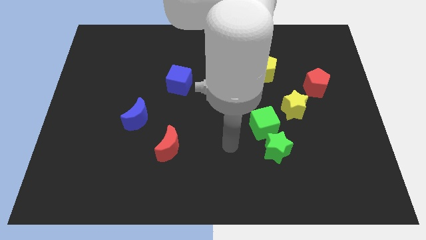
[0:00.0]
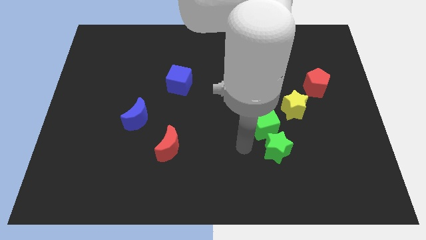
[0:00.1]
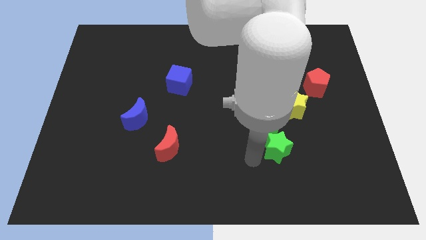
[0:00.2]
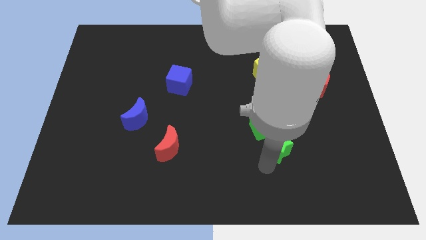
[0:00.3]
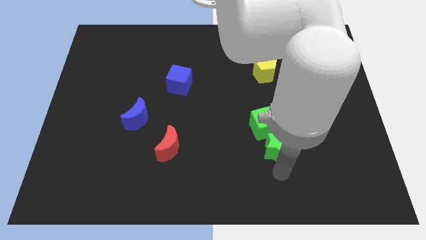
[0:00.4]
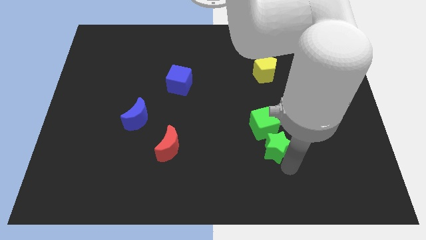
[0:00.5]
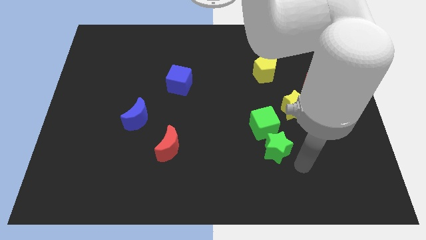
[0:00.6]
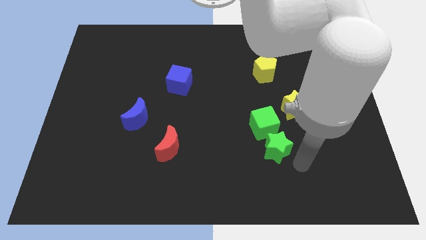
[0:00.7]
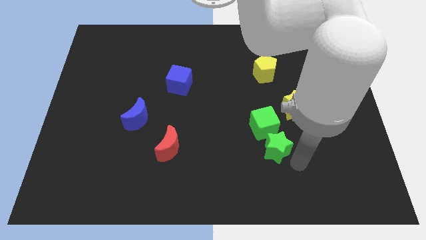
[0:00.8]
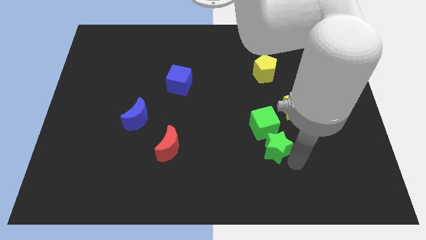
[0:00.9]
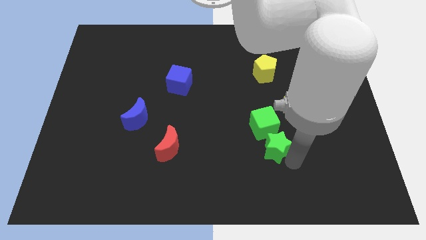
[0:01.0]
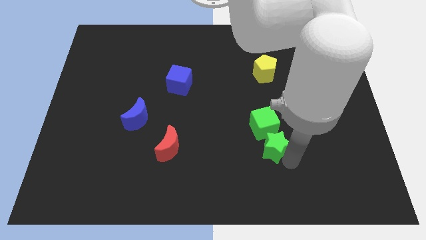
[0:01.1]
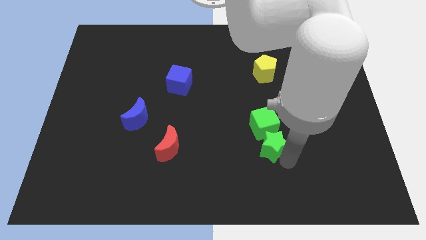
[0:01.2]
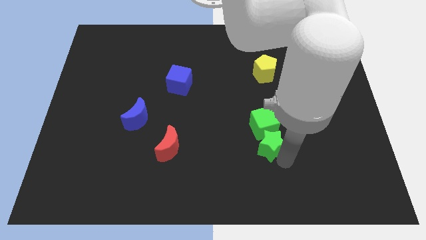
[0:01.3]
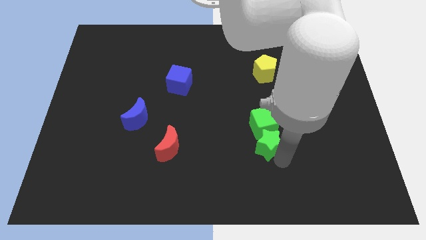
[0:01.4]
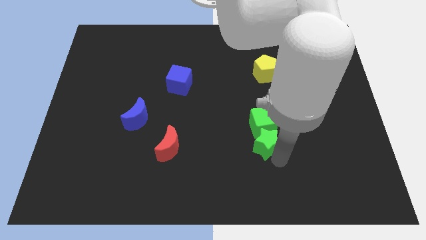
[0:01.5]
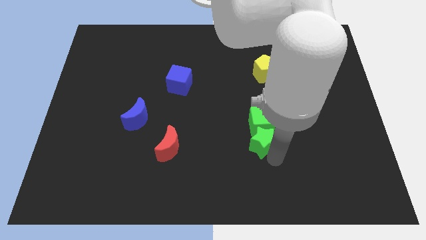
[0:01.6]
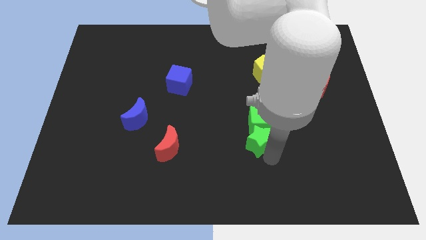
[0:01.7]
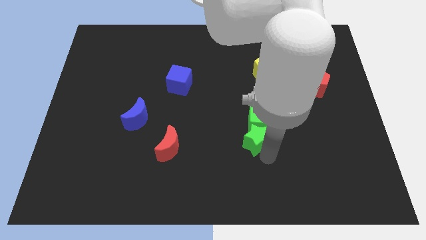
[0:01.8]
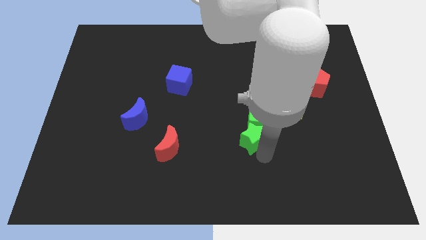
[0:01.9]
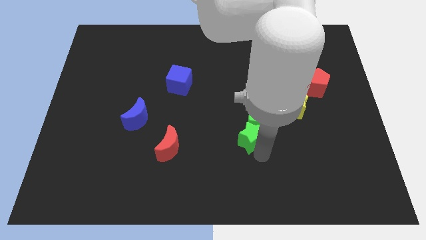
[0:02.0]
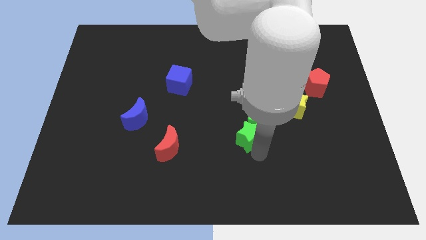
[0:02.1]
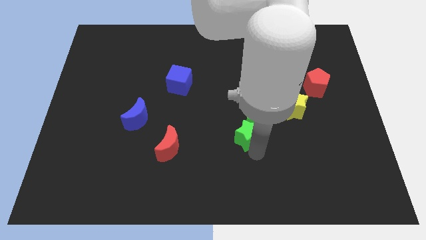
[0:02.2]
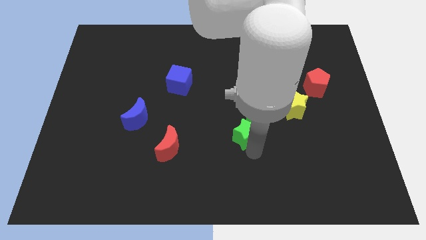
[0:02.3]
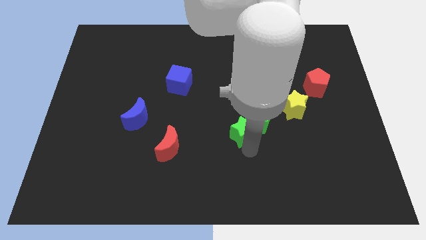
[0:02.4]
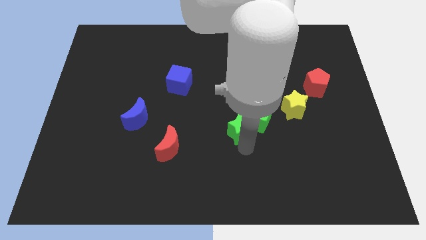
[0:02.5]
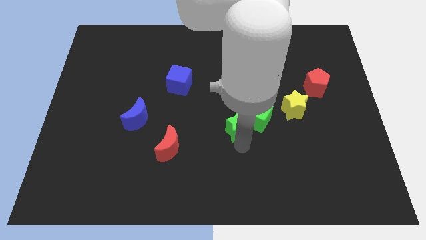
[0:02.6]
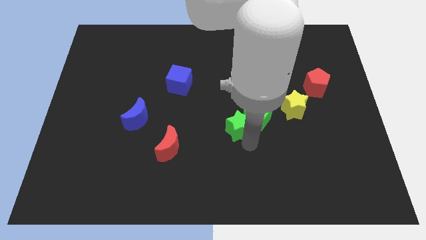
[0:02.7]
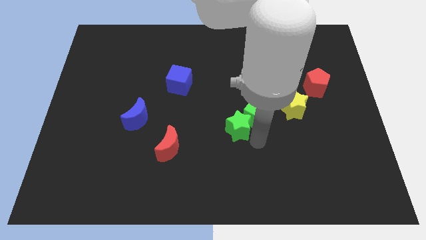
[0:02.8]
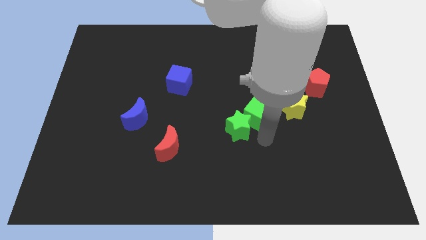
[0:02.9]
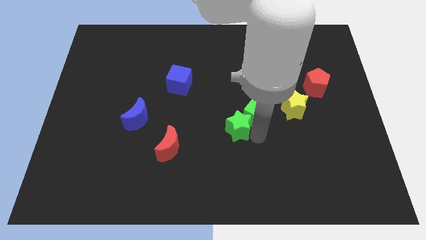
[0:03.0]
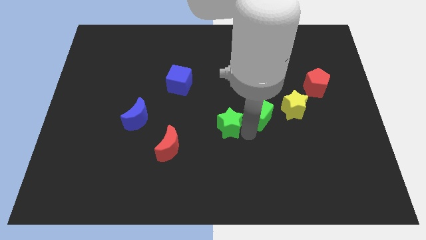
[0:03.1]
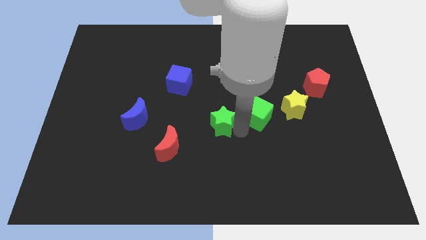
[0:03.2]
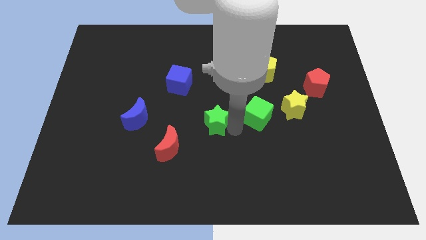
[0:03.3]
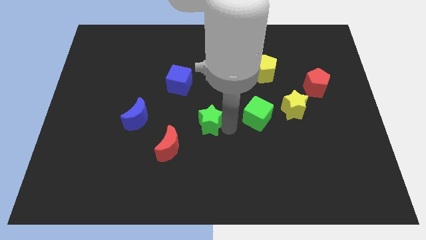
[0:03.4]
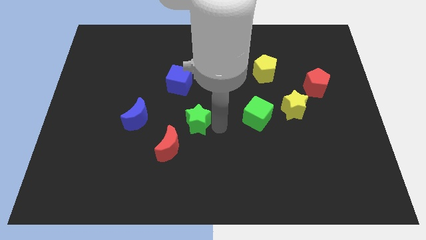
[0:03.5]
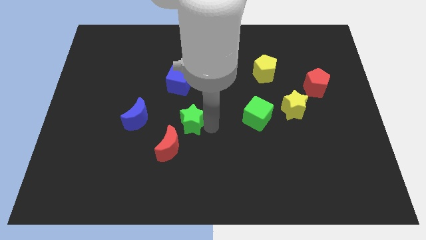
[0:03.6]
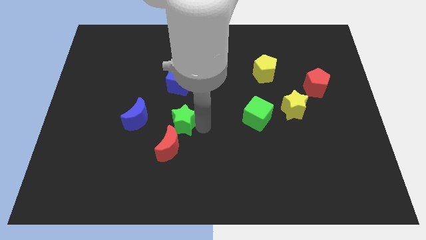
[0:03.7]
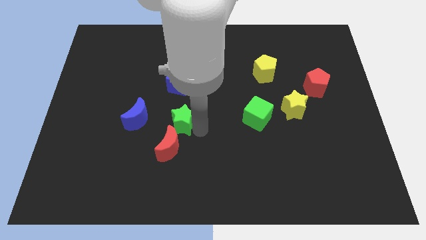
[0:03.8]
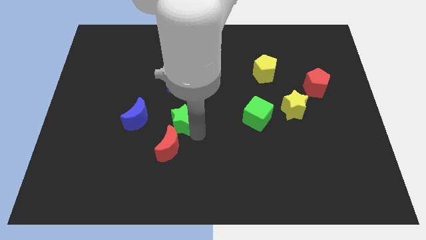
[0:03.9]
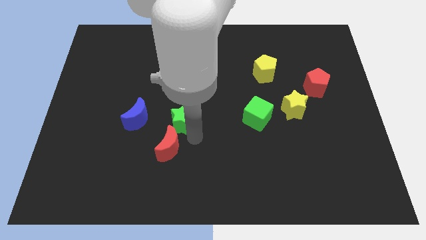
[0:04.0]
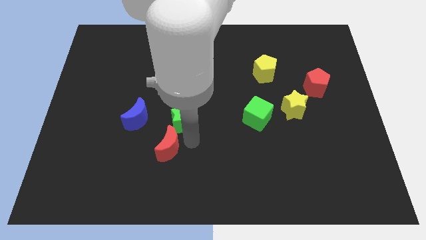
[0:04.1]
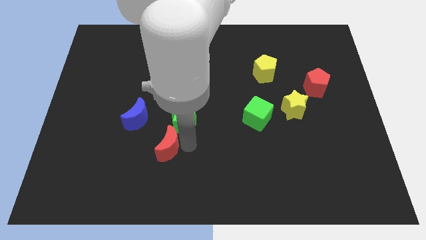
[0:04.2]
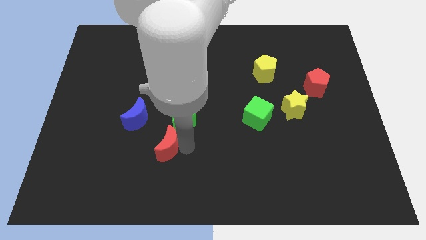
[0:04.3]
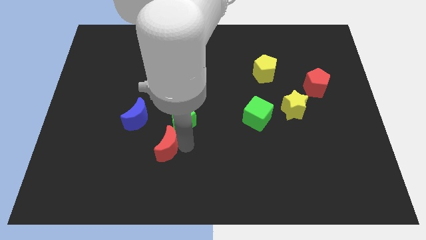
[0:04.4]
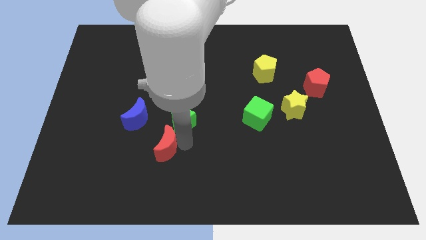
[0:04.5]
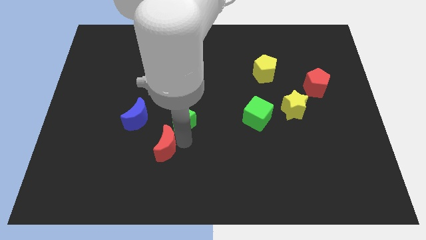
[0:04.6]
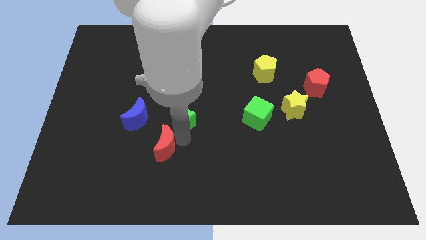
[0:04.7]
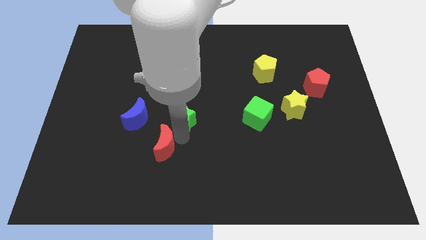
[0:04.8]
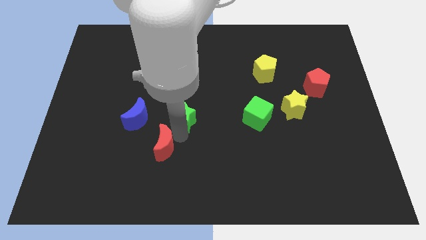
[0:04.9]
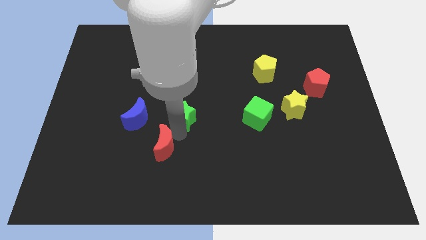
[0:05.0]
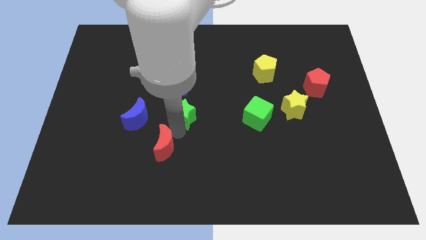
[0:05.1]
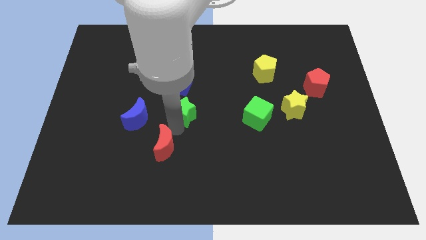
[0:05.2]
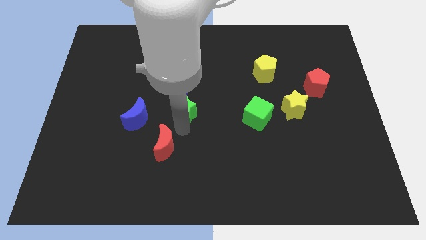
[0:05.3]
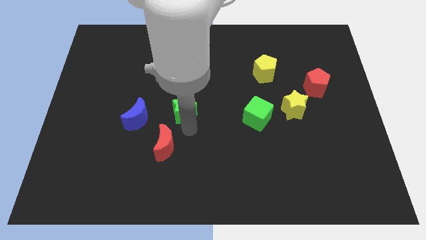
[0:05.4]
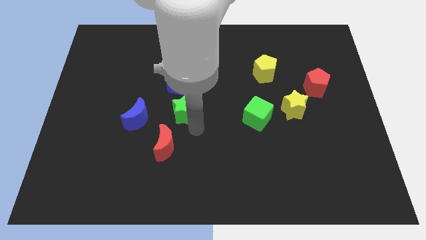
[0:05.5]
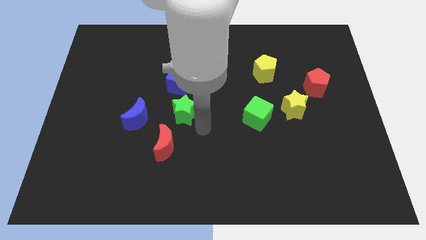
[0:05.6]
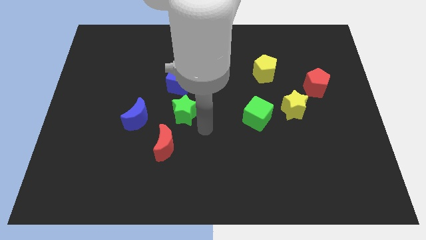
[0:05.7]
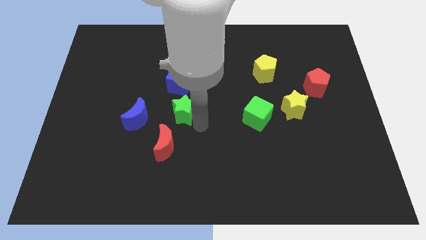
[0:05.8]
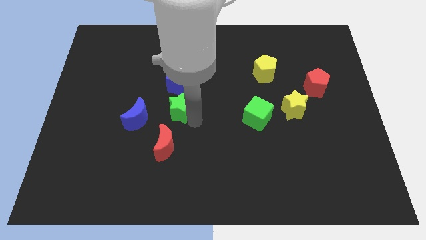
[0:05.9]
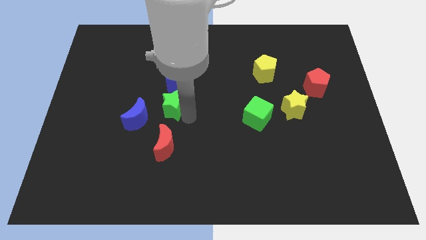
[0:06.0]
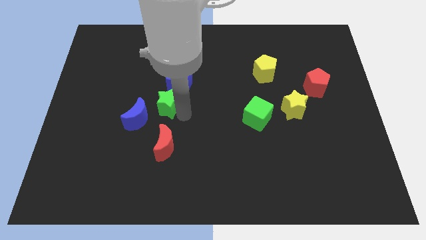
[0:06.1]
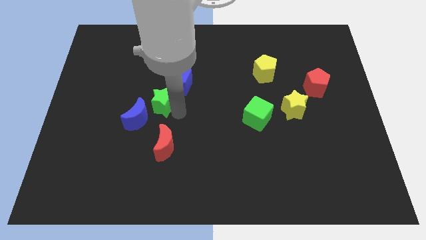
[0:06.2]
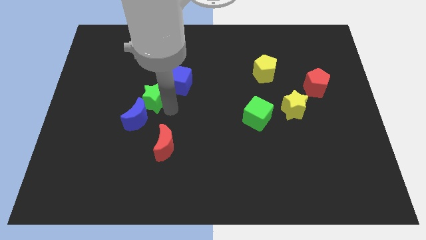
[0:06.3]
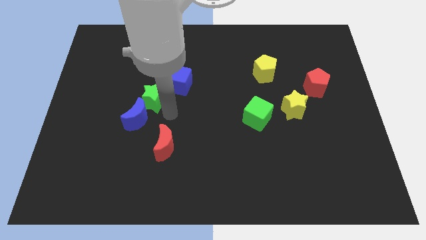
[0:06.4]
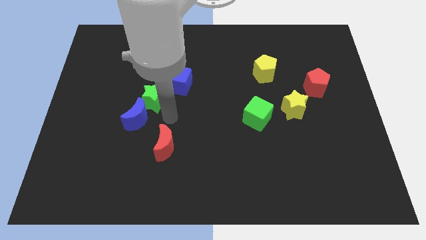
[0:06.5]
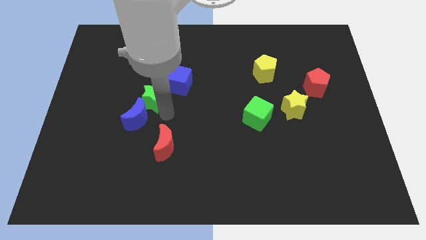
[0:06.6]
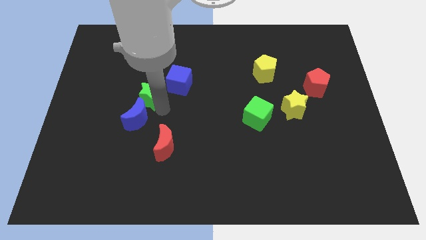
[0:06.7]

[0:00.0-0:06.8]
push the green star left of the blue cube
